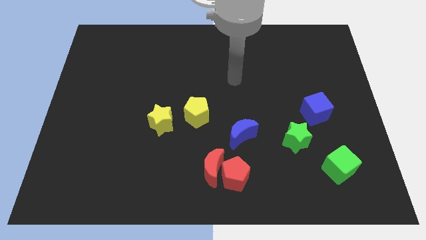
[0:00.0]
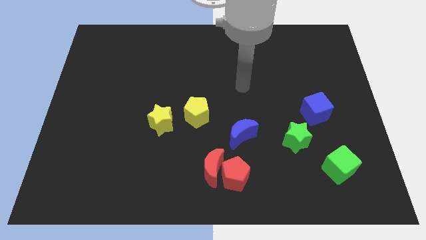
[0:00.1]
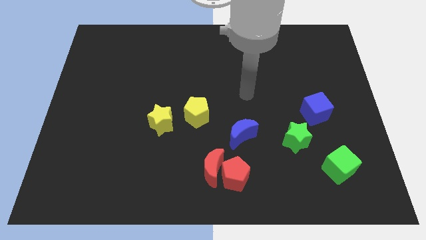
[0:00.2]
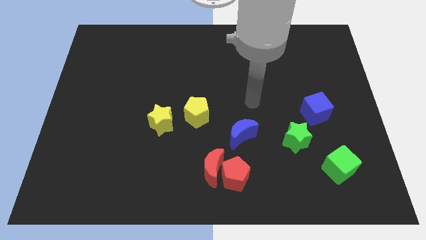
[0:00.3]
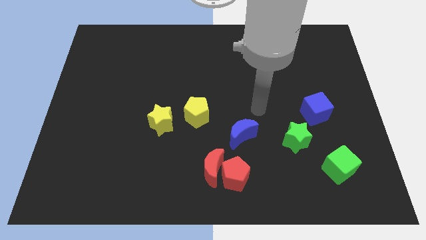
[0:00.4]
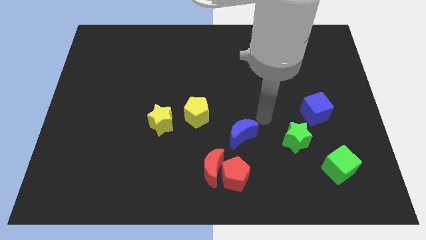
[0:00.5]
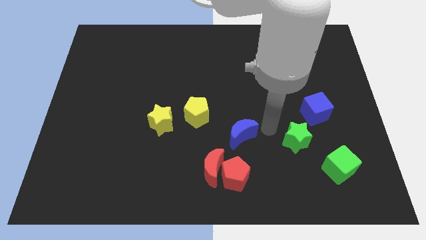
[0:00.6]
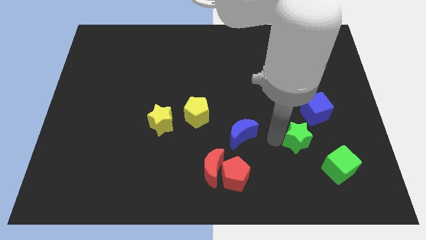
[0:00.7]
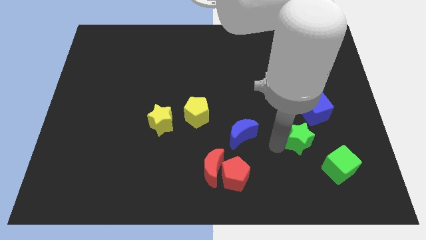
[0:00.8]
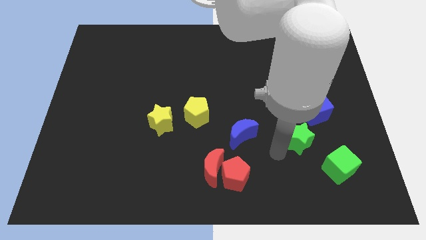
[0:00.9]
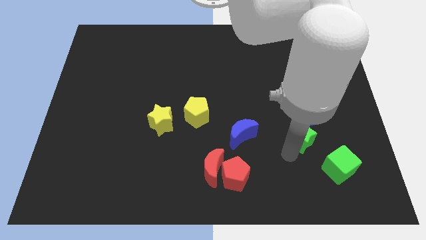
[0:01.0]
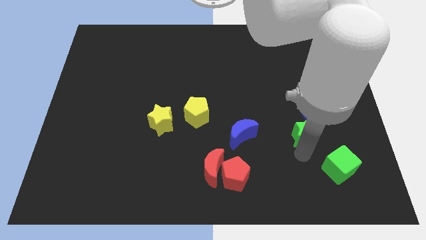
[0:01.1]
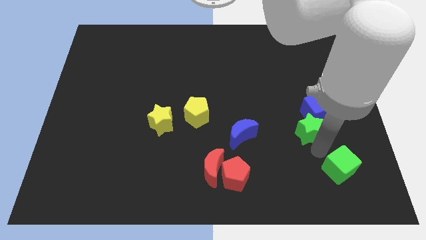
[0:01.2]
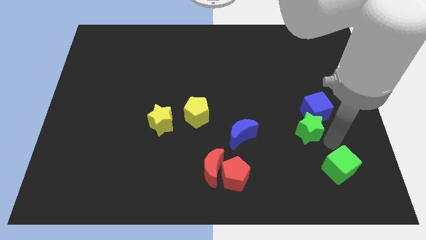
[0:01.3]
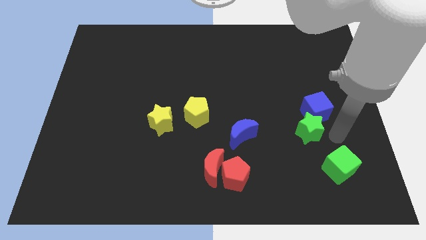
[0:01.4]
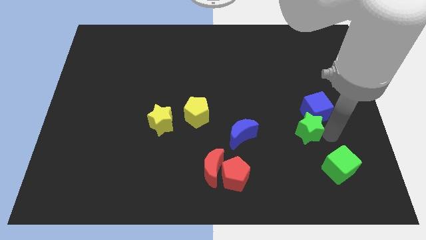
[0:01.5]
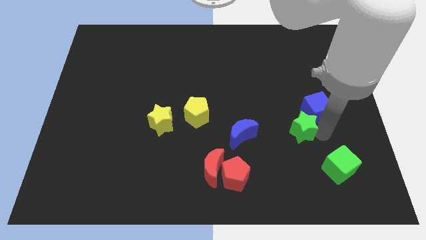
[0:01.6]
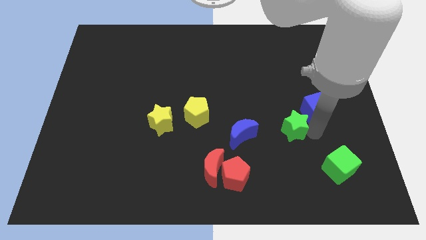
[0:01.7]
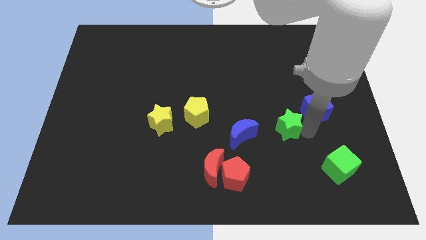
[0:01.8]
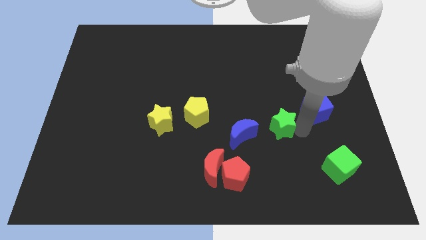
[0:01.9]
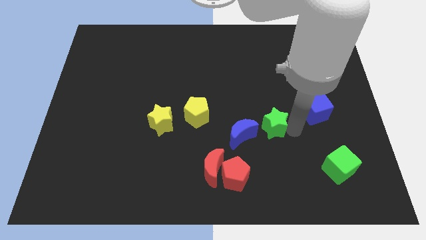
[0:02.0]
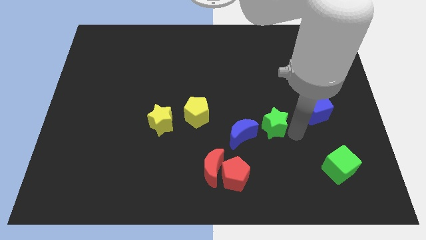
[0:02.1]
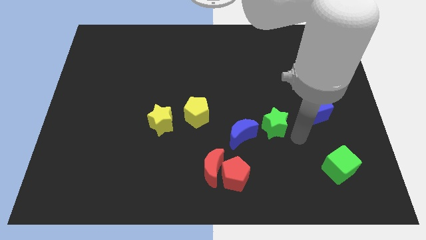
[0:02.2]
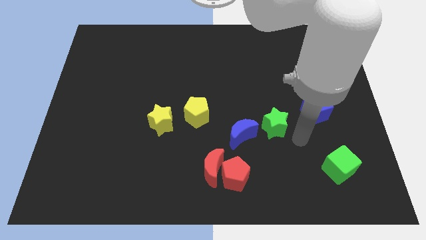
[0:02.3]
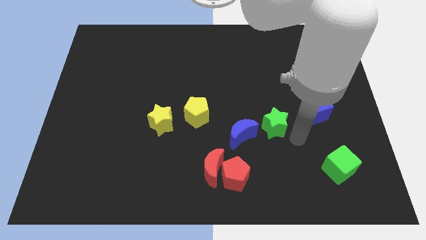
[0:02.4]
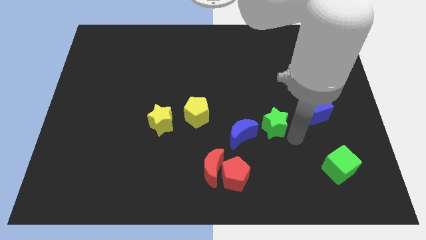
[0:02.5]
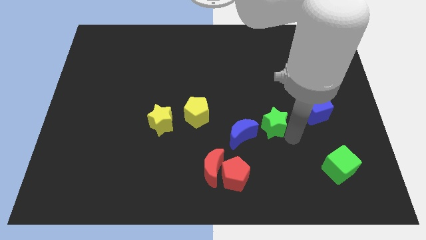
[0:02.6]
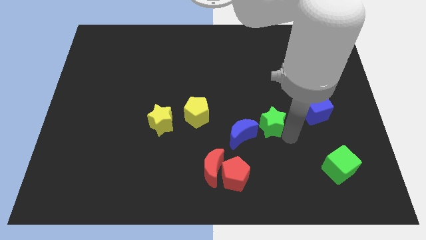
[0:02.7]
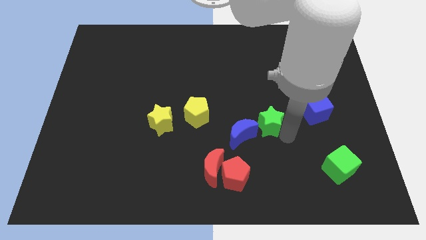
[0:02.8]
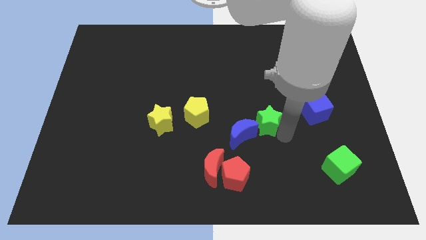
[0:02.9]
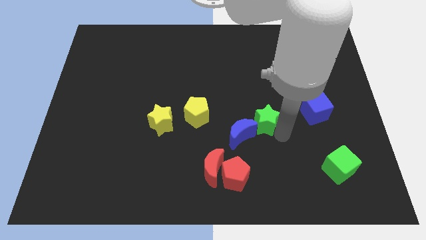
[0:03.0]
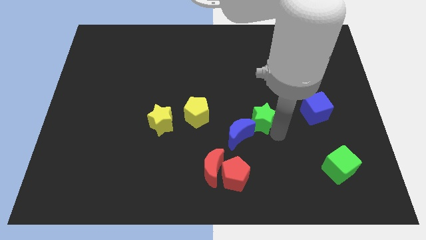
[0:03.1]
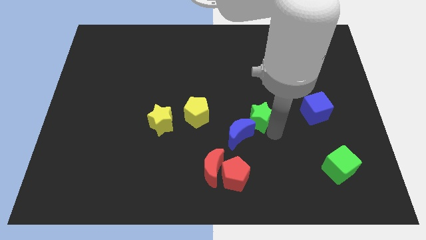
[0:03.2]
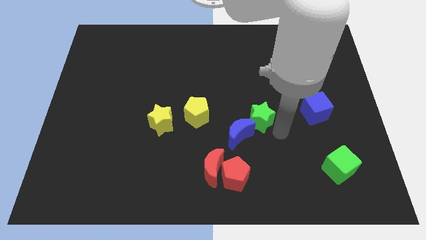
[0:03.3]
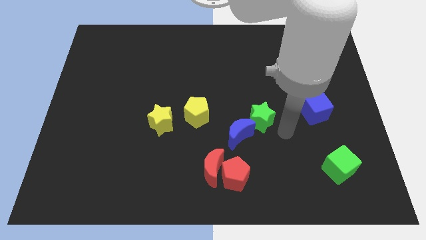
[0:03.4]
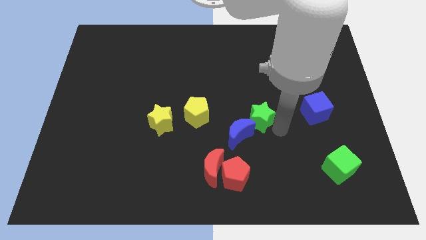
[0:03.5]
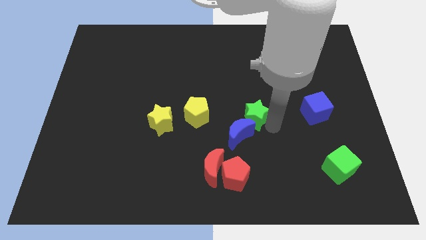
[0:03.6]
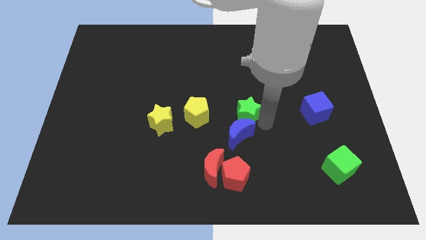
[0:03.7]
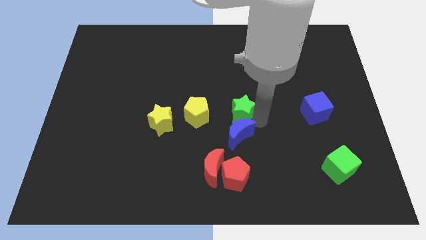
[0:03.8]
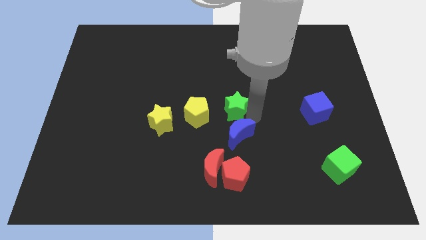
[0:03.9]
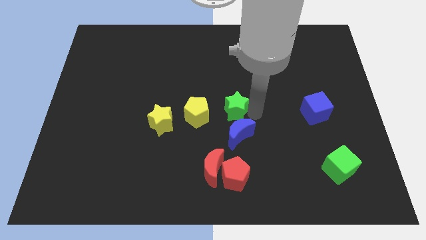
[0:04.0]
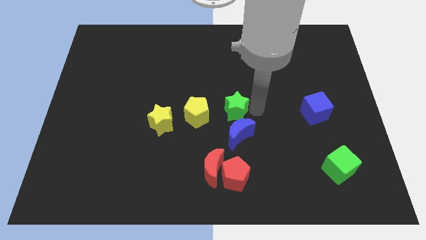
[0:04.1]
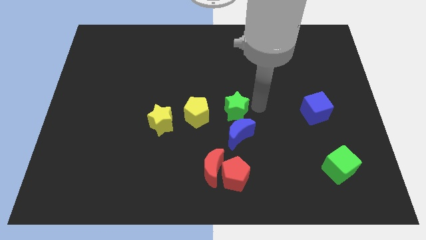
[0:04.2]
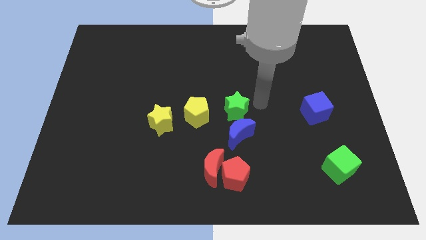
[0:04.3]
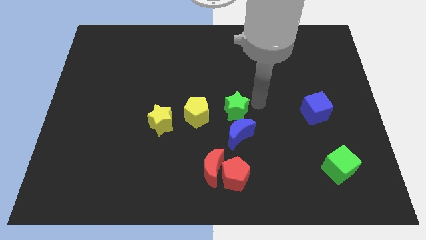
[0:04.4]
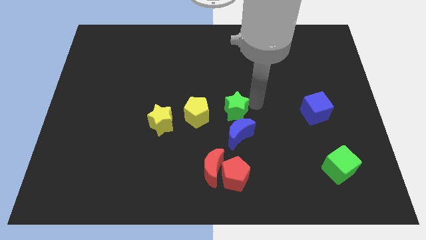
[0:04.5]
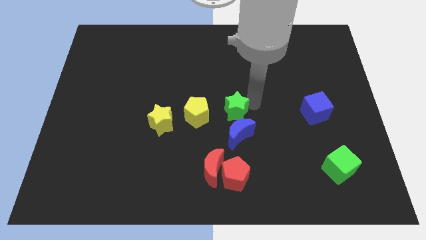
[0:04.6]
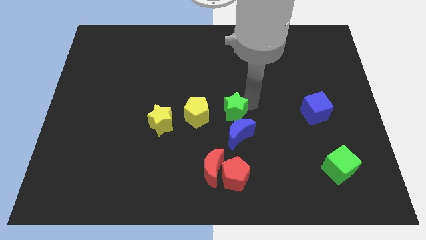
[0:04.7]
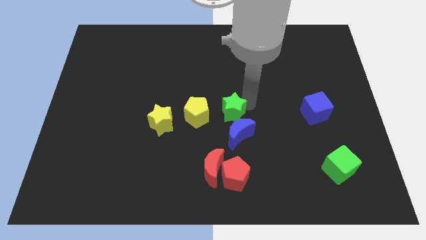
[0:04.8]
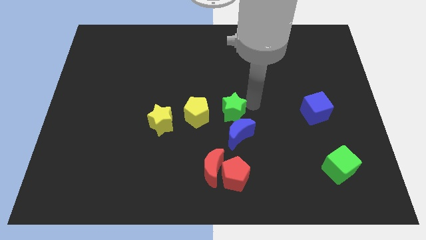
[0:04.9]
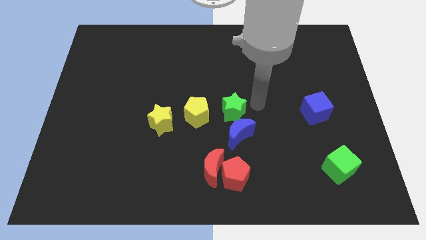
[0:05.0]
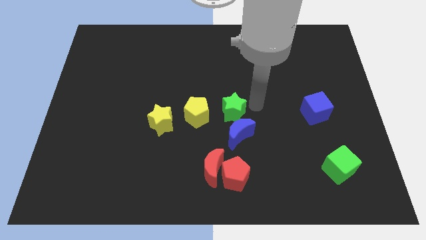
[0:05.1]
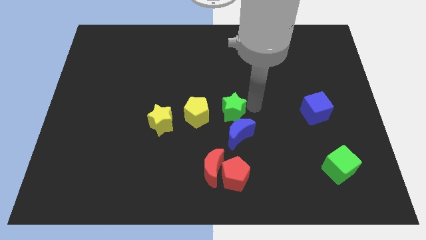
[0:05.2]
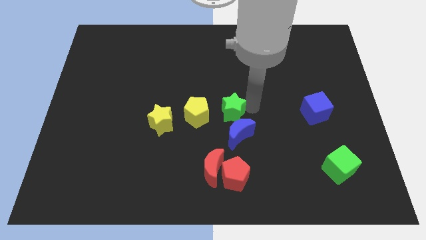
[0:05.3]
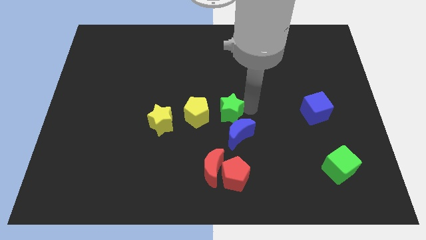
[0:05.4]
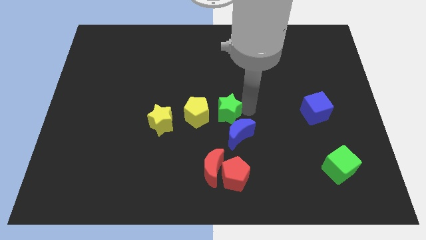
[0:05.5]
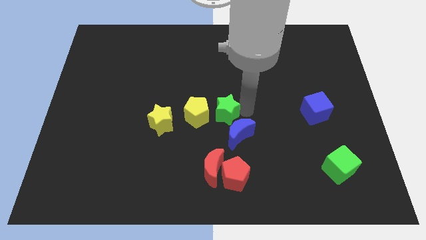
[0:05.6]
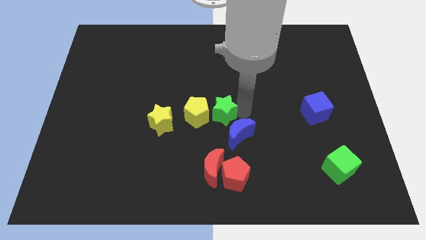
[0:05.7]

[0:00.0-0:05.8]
push the green star to the yellow pentagon

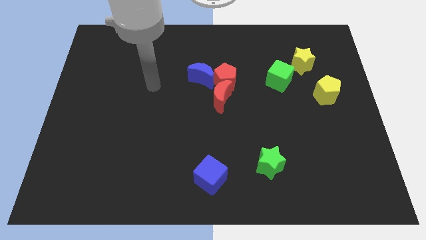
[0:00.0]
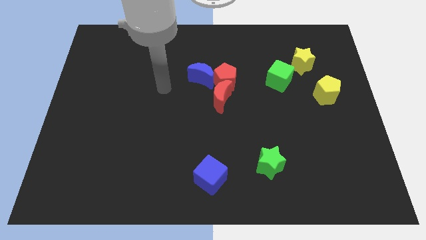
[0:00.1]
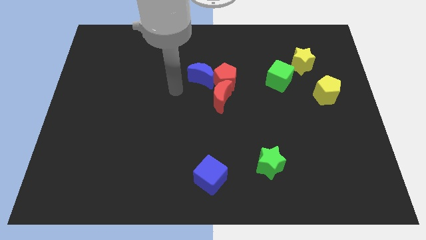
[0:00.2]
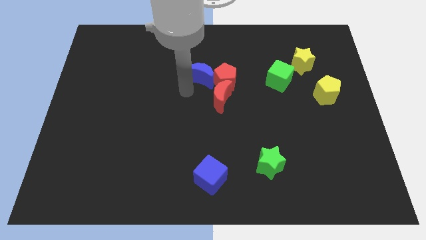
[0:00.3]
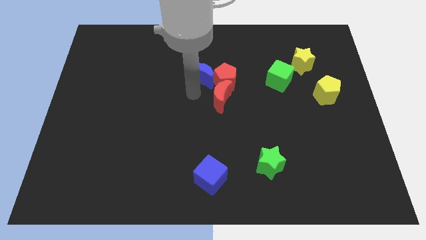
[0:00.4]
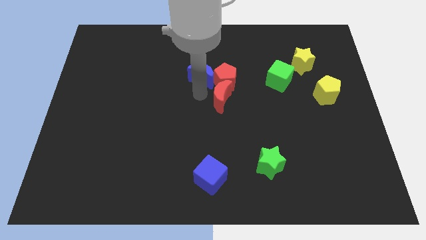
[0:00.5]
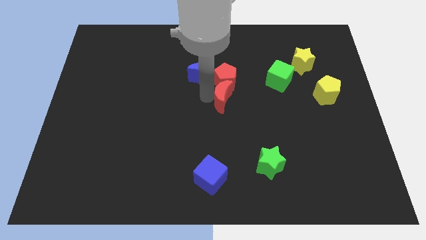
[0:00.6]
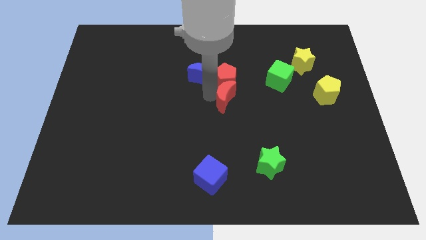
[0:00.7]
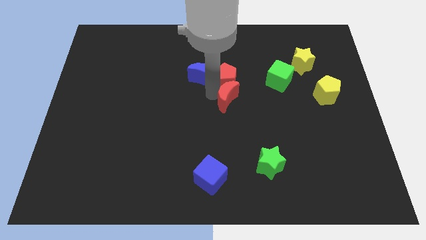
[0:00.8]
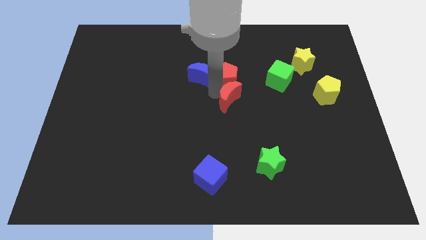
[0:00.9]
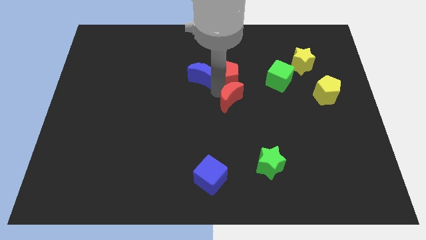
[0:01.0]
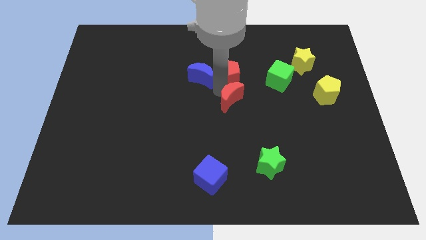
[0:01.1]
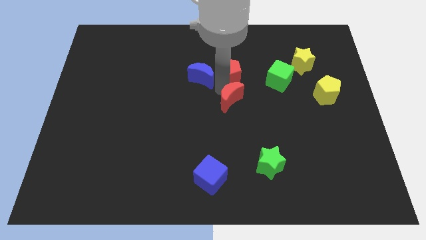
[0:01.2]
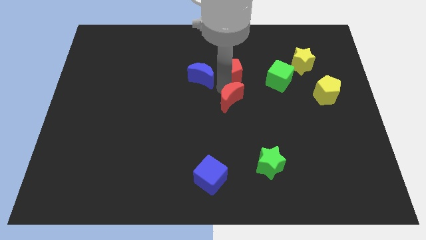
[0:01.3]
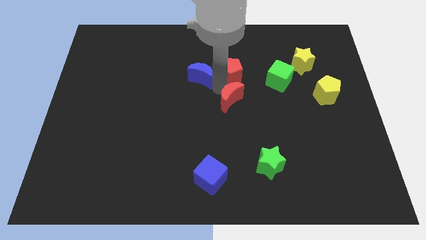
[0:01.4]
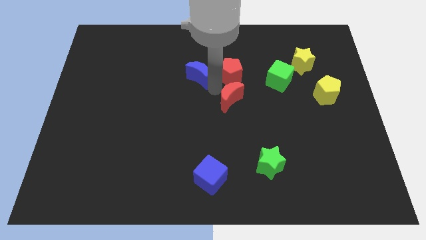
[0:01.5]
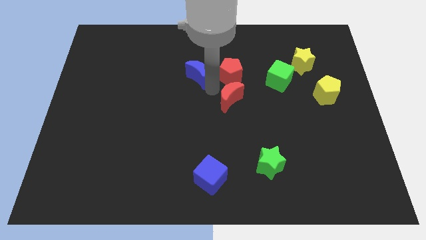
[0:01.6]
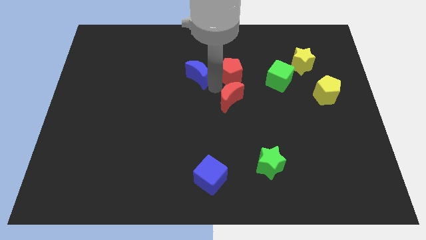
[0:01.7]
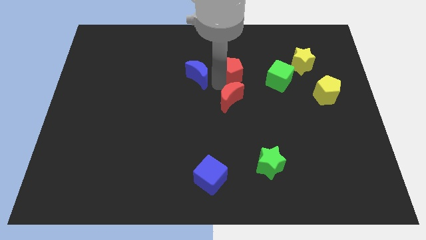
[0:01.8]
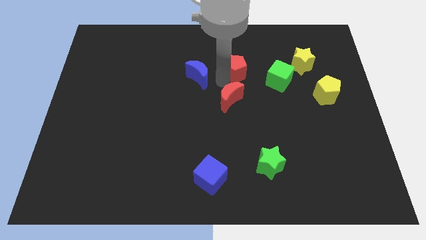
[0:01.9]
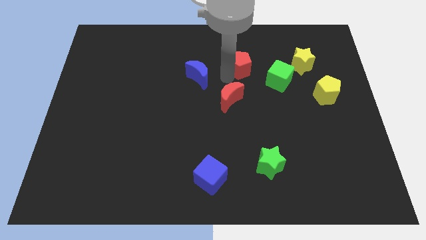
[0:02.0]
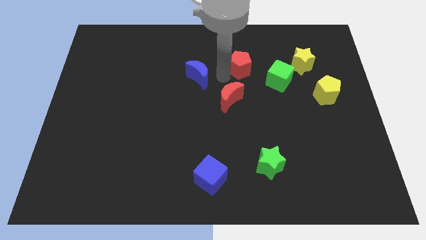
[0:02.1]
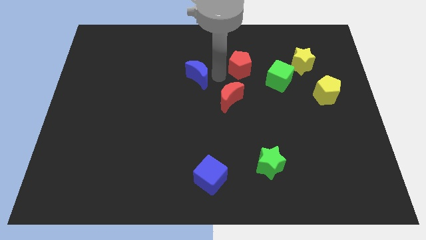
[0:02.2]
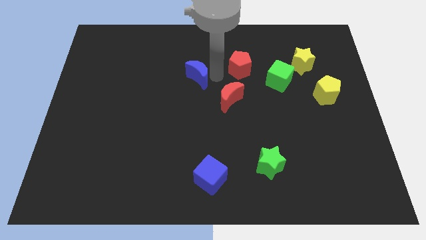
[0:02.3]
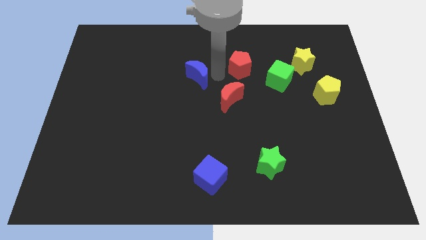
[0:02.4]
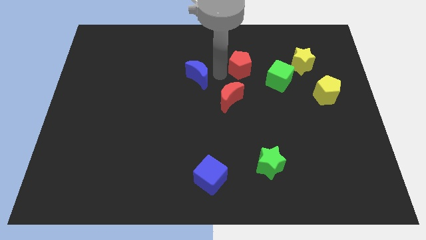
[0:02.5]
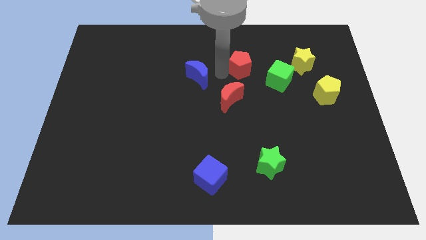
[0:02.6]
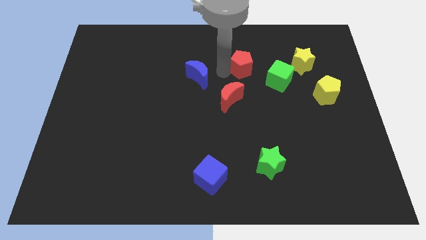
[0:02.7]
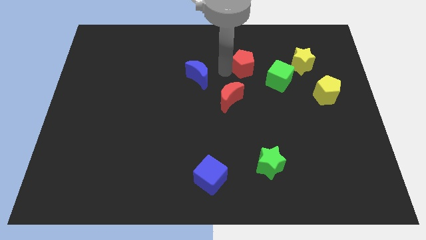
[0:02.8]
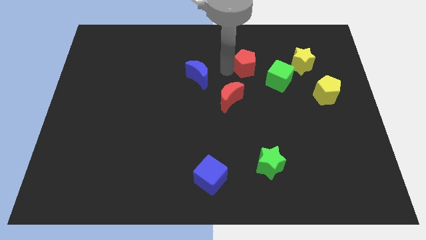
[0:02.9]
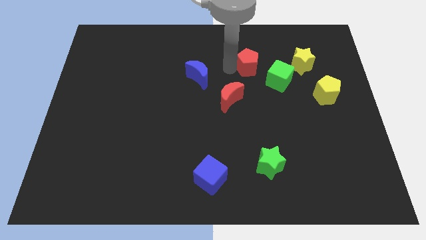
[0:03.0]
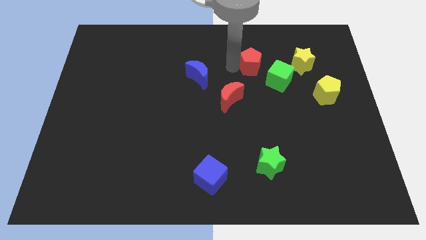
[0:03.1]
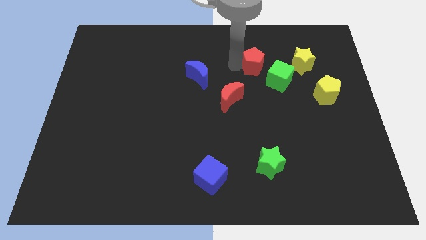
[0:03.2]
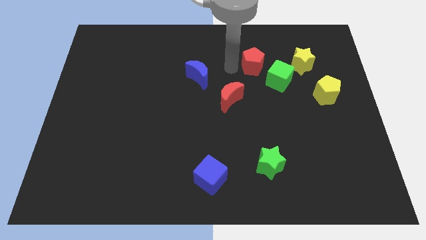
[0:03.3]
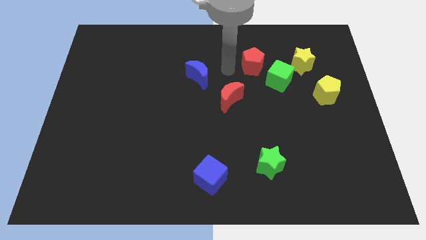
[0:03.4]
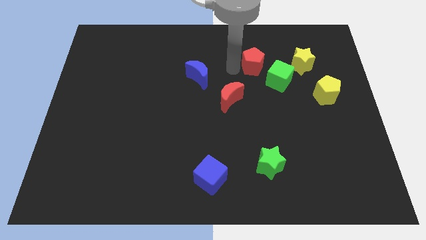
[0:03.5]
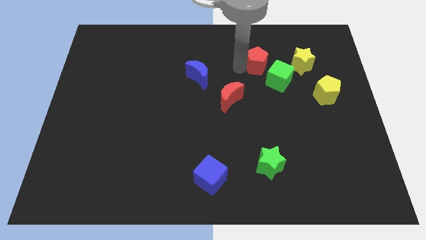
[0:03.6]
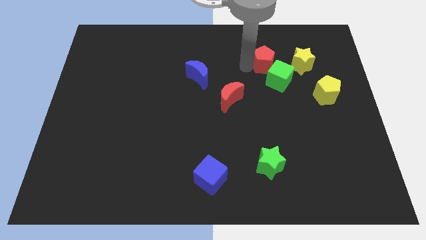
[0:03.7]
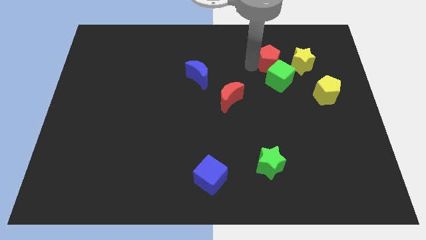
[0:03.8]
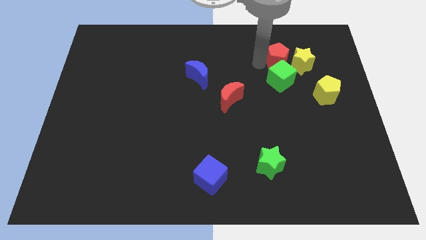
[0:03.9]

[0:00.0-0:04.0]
move the red pentagon next to the yellow star
